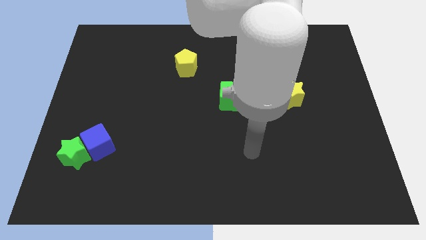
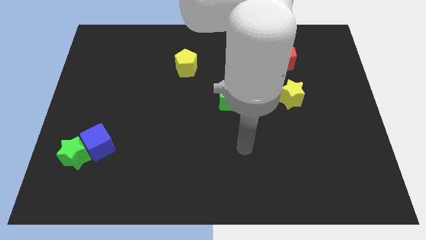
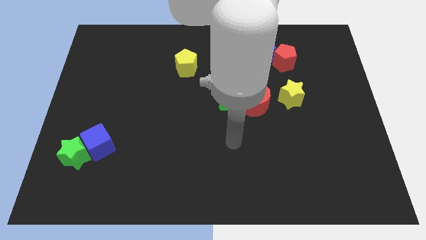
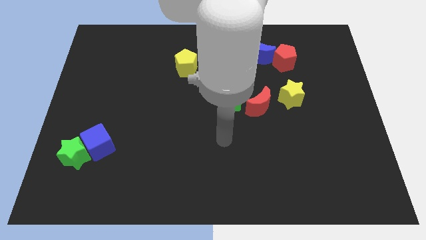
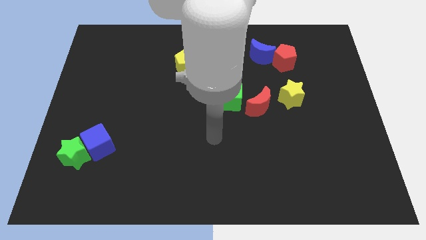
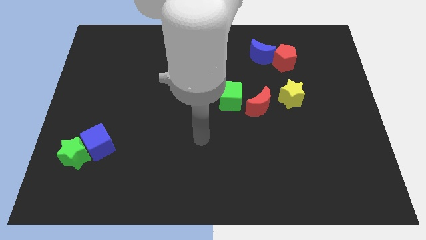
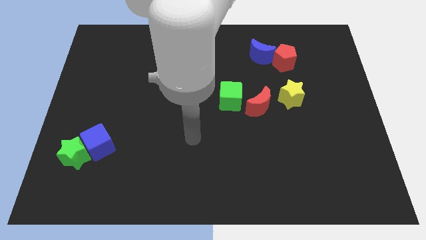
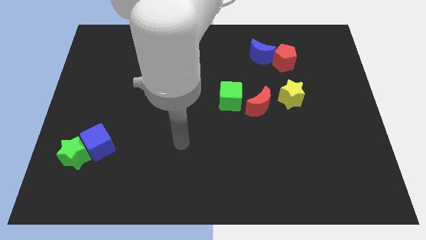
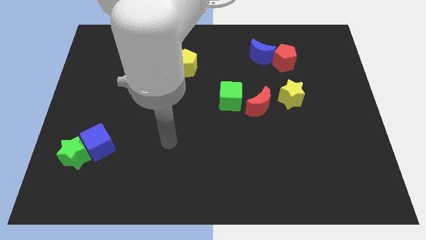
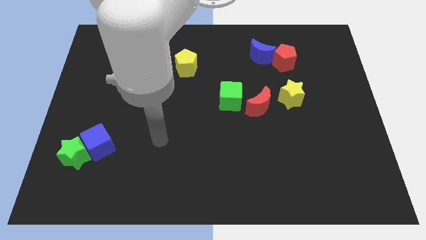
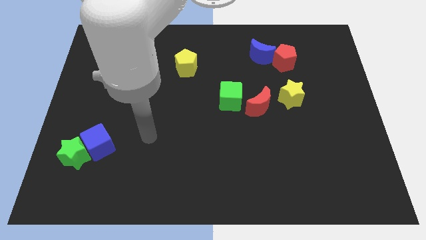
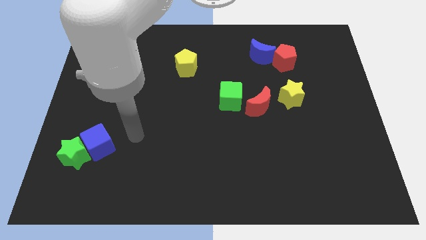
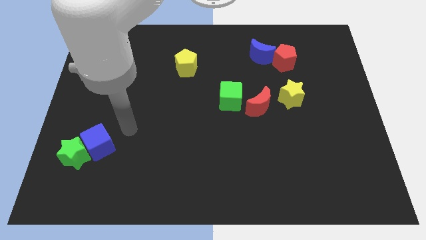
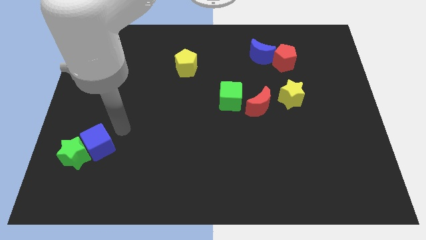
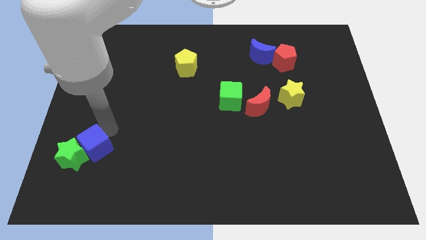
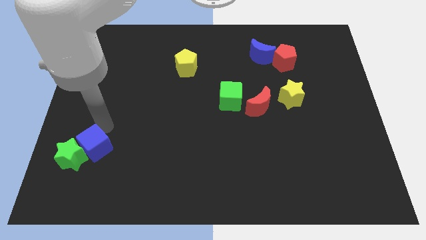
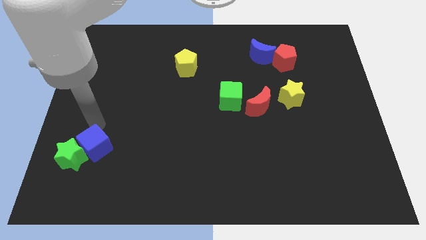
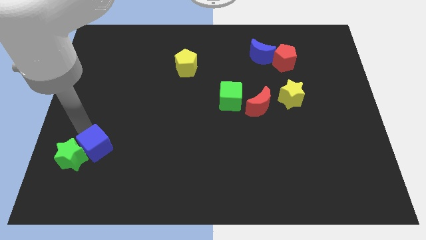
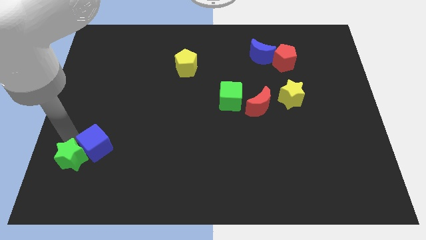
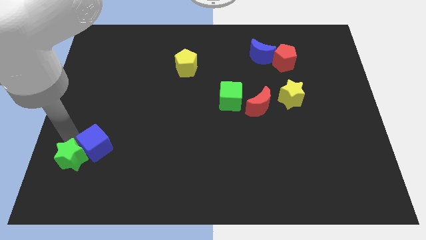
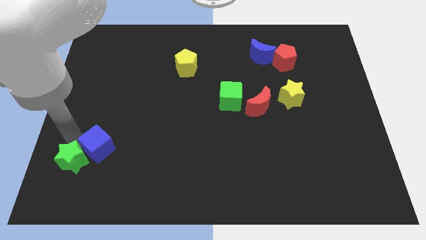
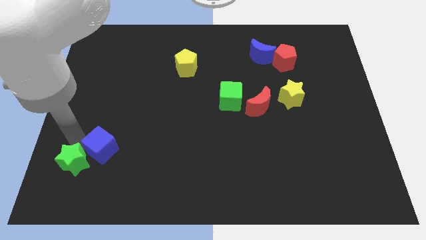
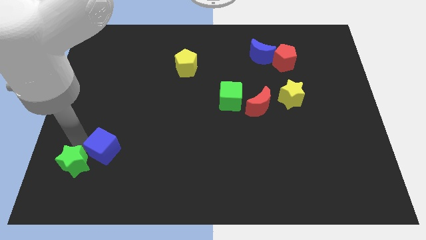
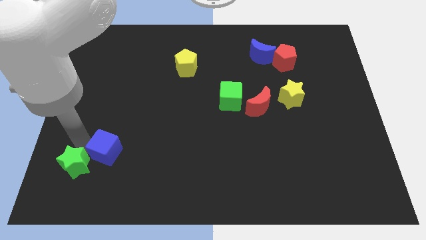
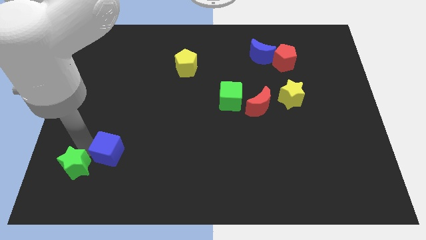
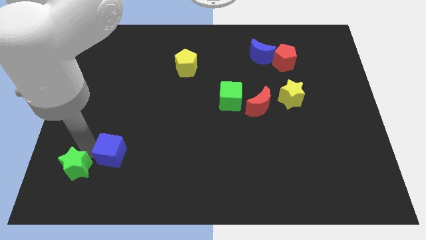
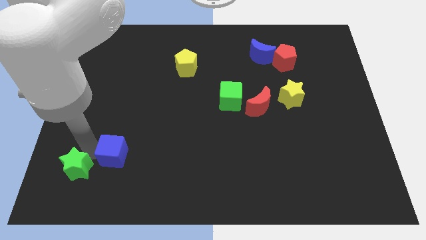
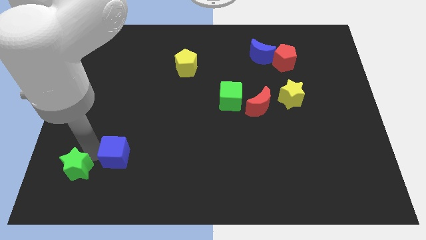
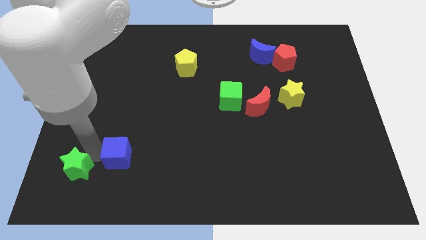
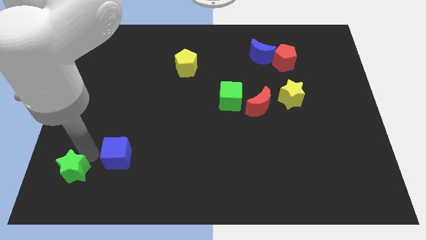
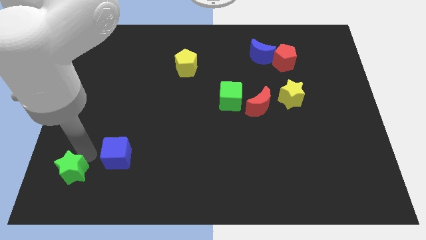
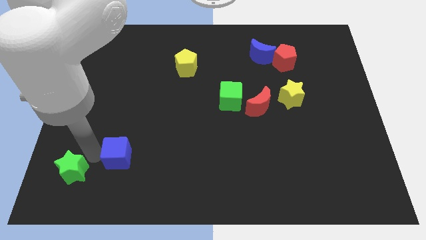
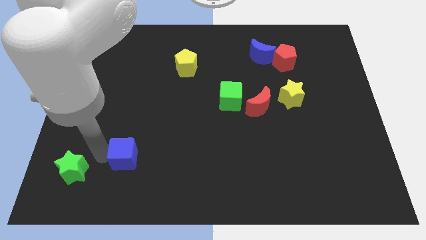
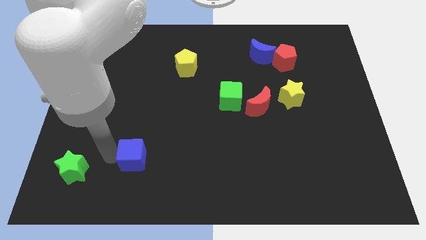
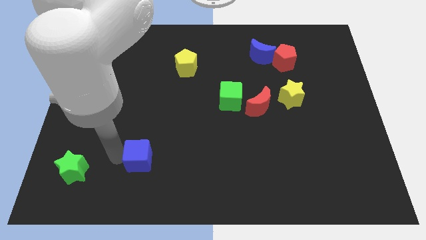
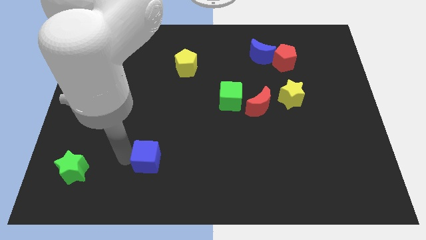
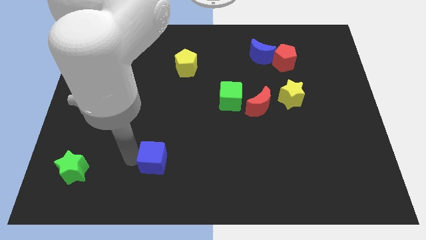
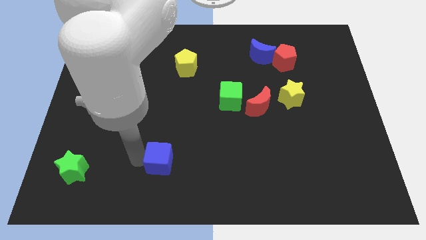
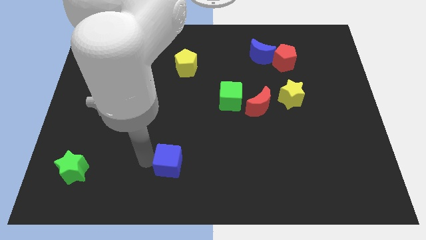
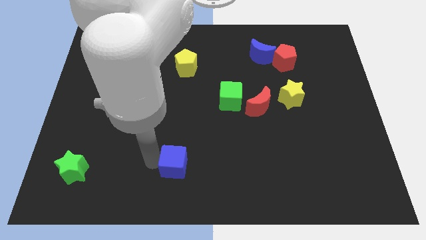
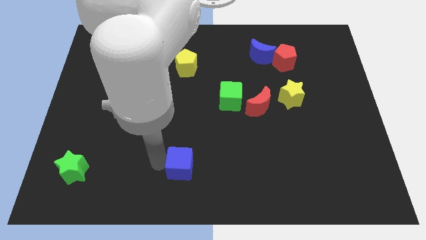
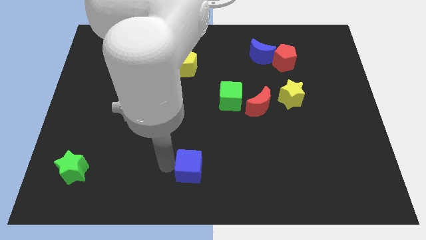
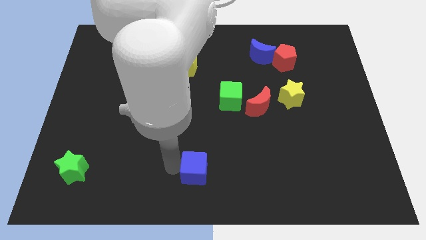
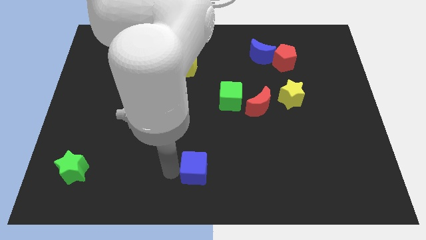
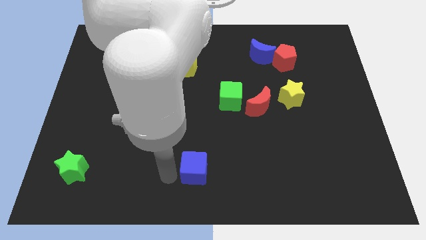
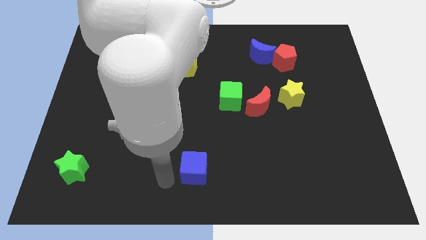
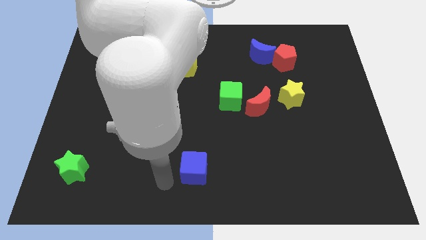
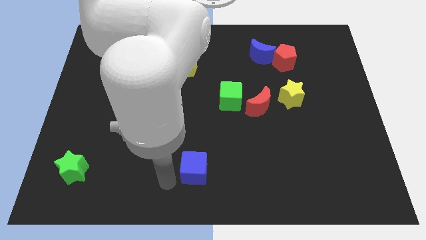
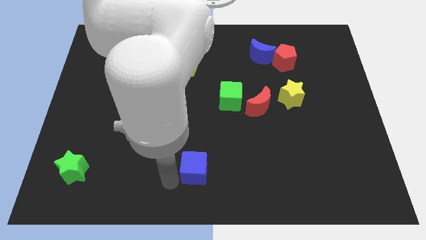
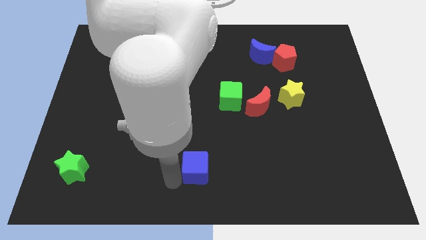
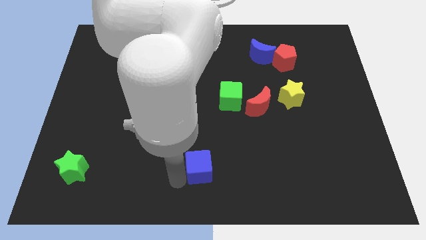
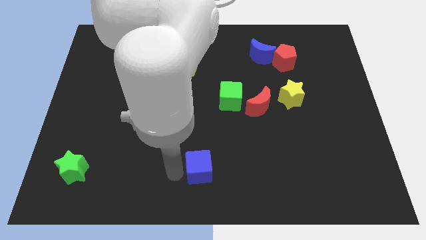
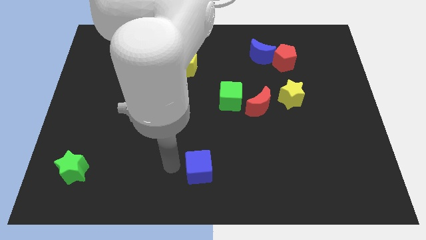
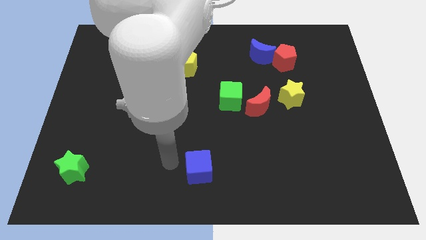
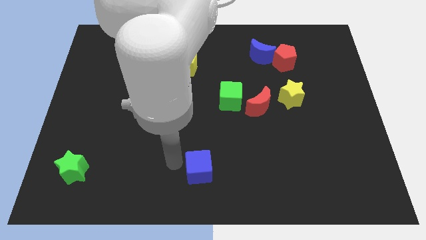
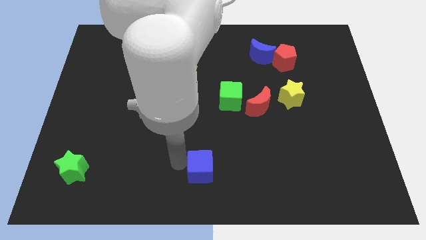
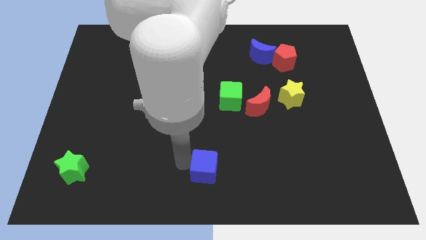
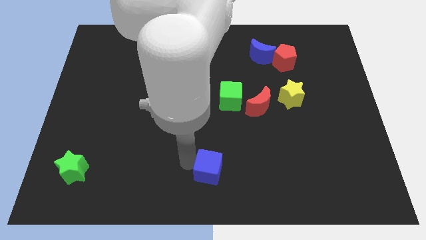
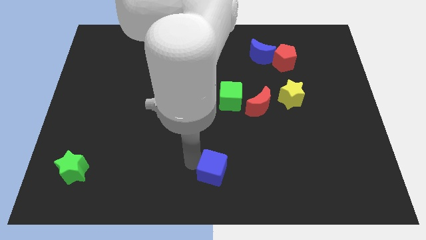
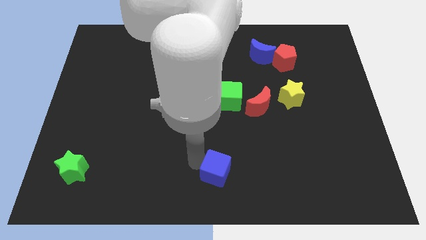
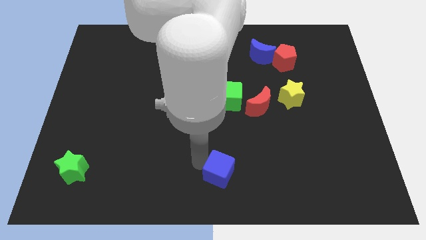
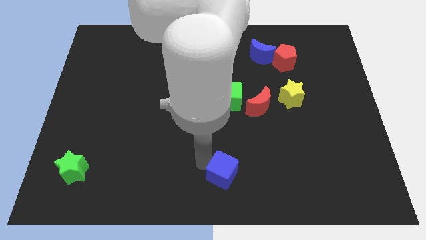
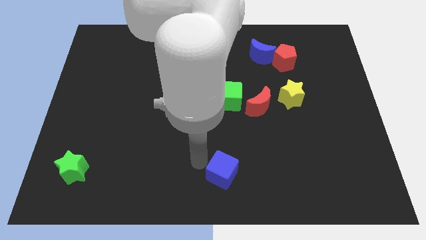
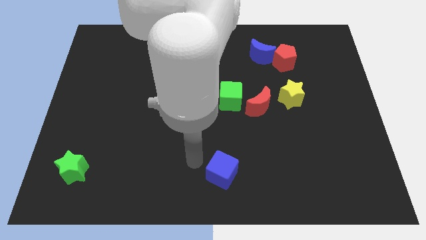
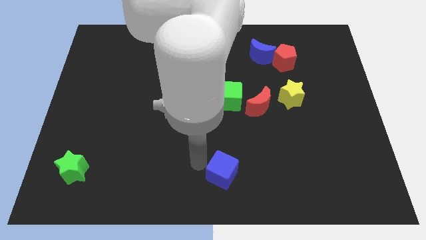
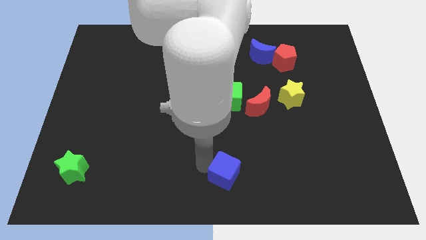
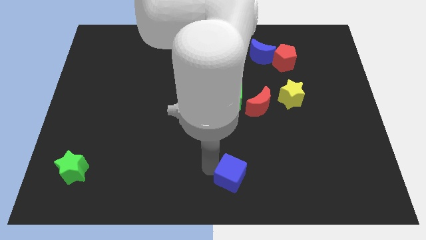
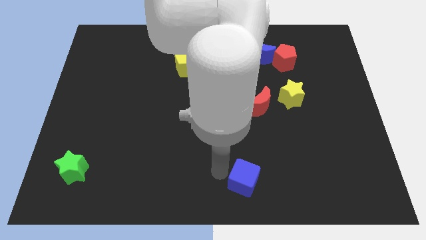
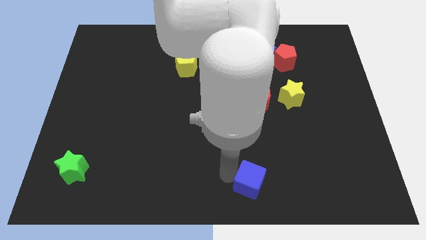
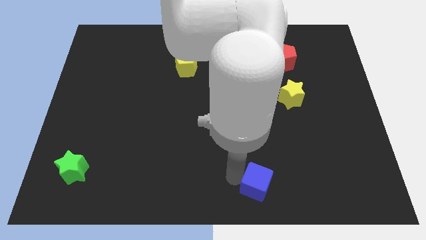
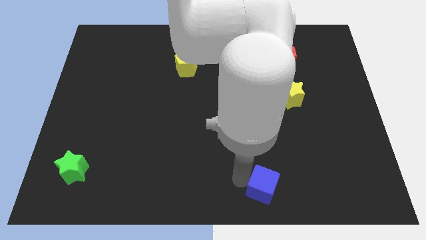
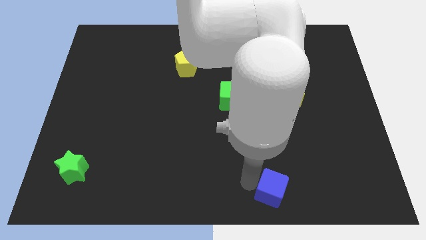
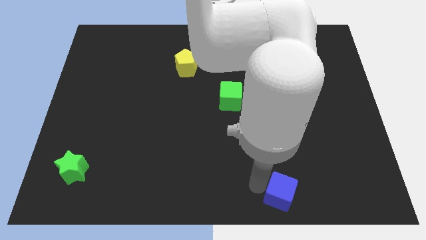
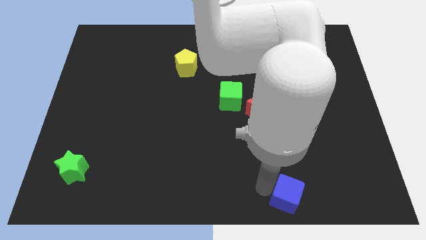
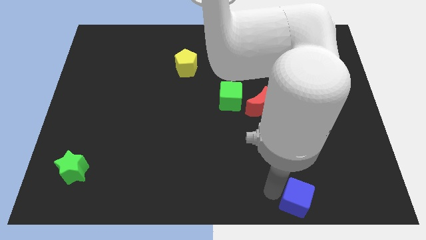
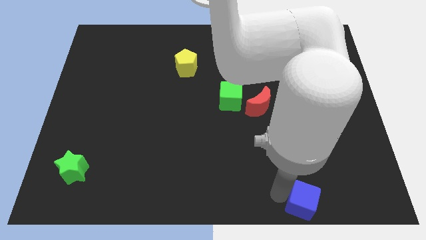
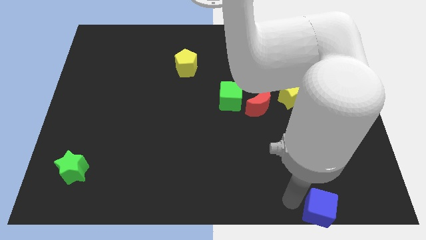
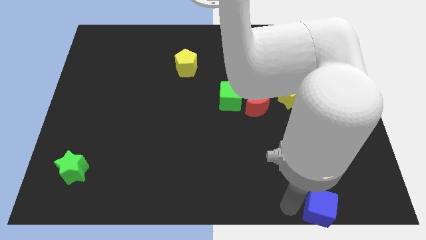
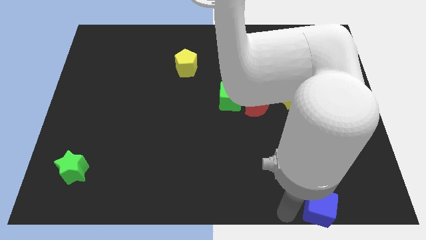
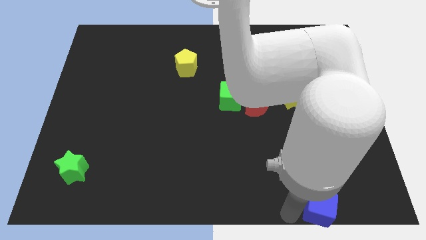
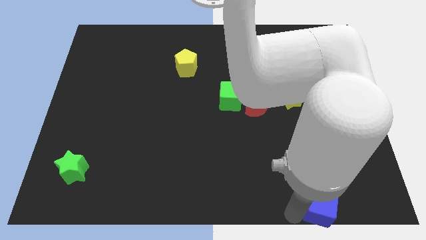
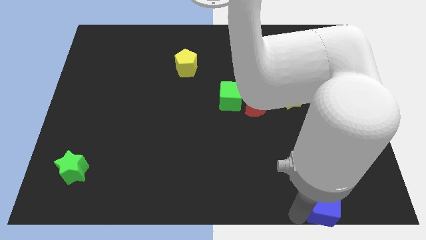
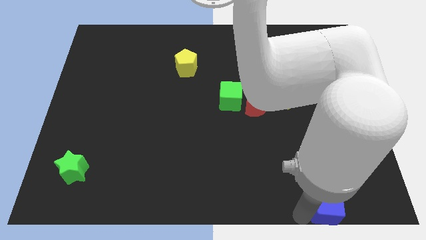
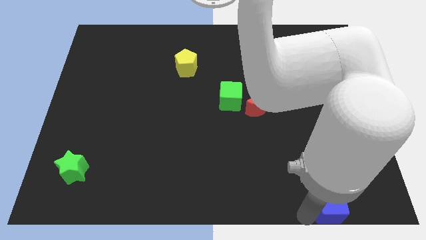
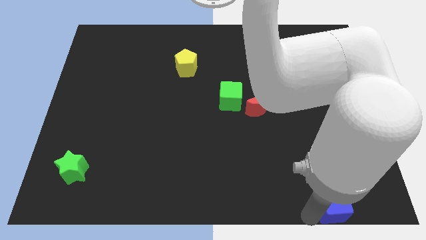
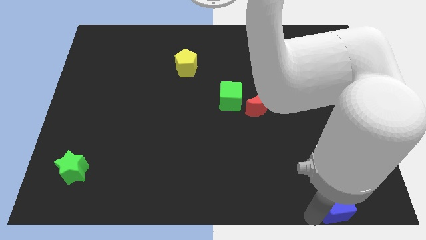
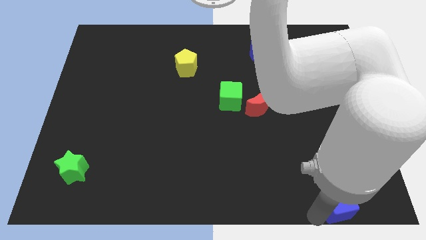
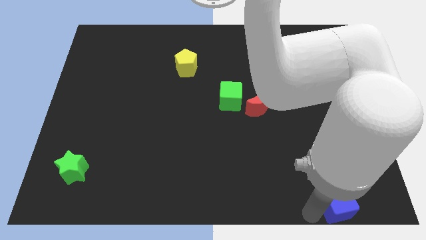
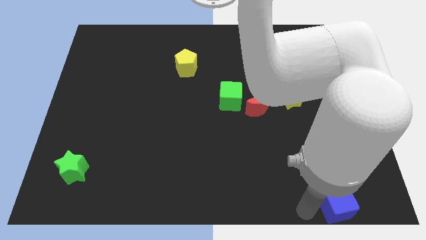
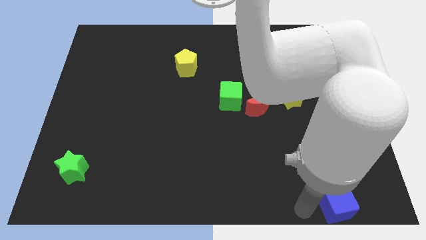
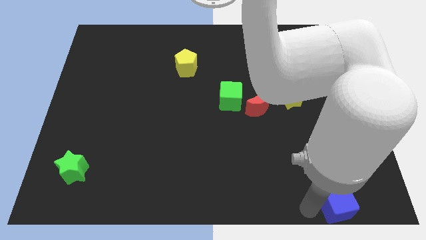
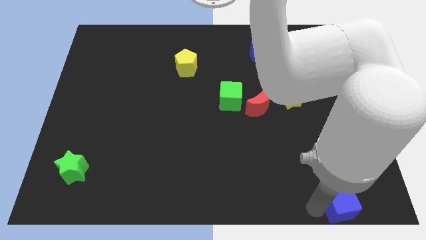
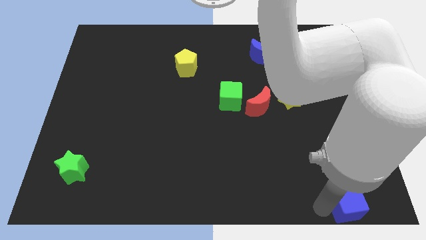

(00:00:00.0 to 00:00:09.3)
push the blue cube to the bottom right
